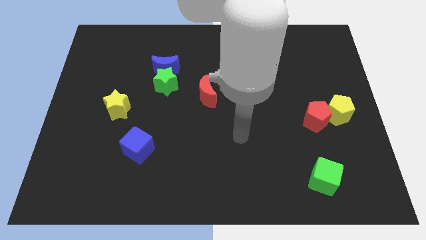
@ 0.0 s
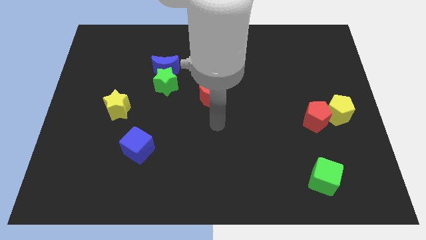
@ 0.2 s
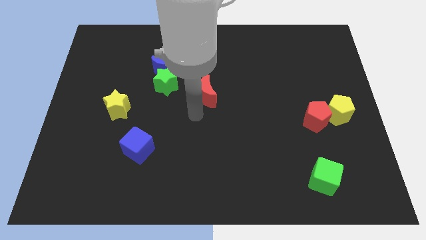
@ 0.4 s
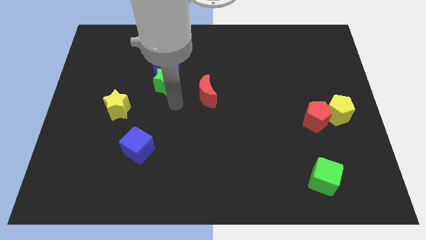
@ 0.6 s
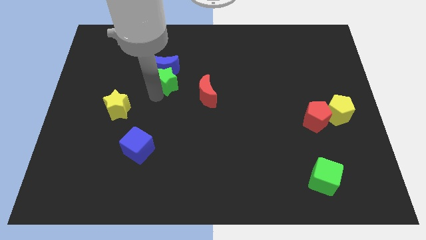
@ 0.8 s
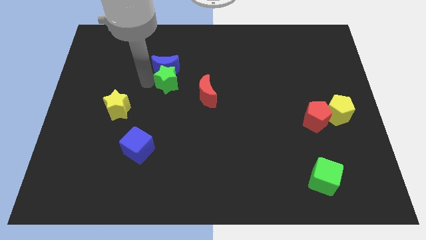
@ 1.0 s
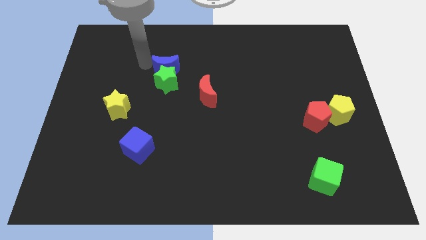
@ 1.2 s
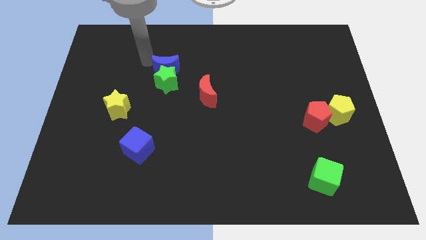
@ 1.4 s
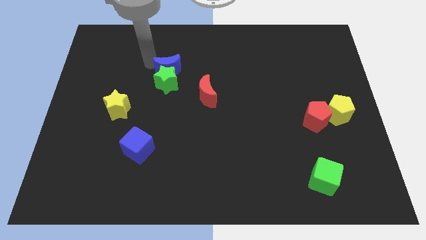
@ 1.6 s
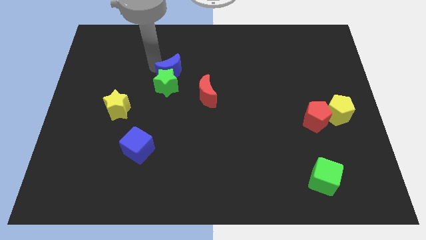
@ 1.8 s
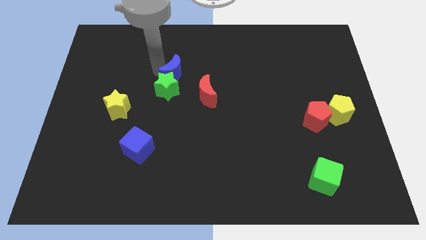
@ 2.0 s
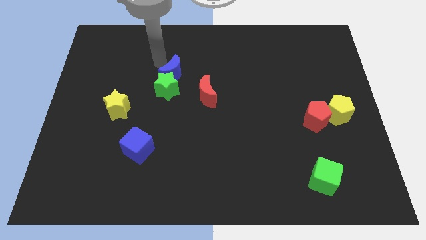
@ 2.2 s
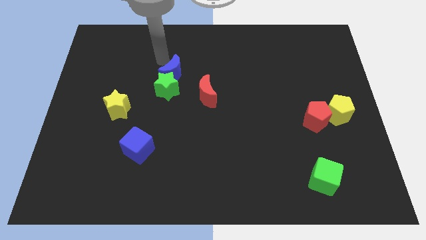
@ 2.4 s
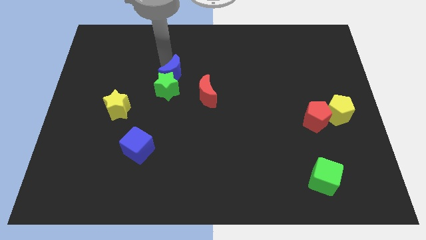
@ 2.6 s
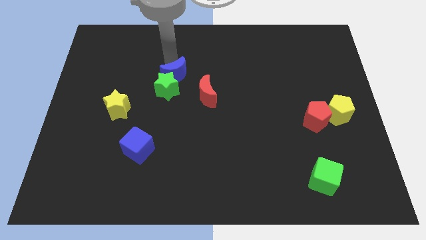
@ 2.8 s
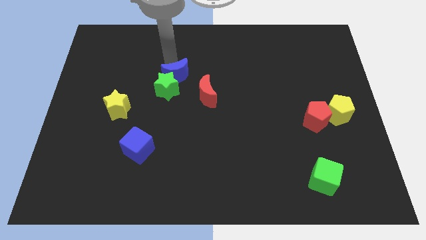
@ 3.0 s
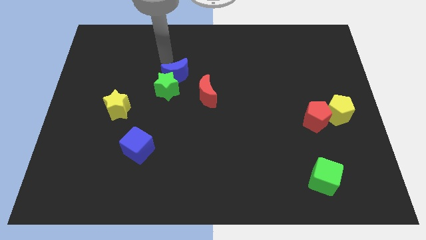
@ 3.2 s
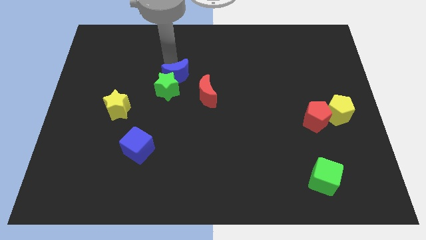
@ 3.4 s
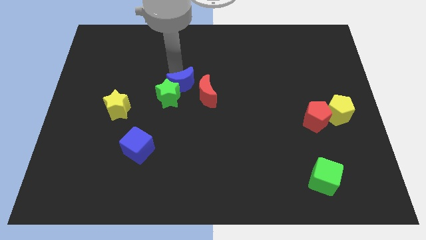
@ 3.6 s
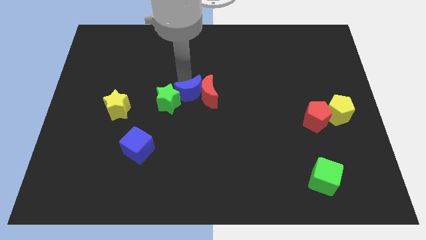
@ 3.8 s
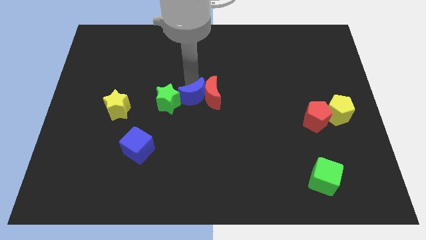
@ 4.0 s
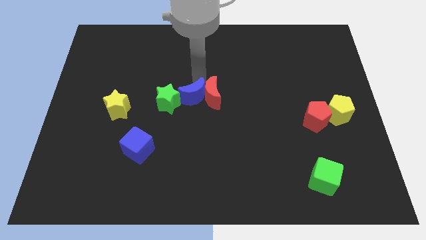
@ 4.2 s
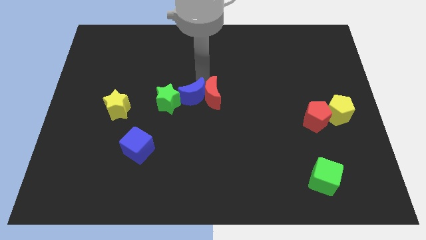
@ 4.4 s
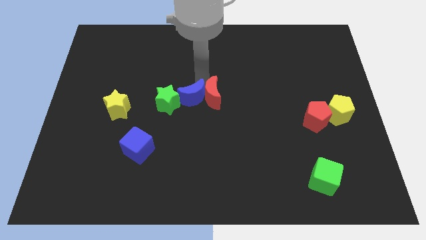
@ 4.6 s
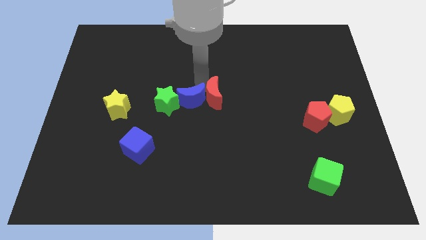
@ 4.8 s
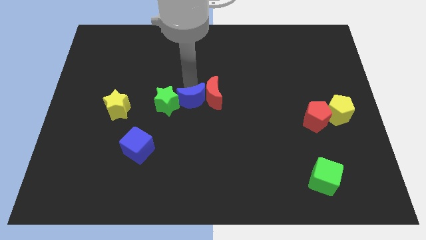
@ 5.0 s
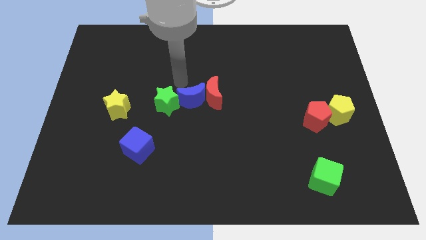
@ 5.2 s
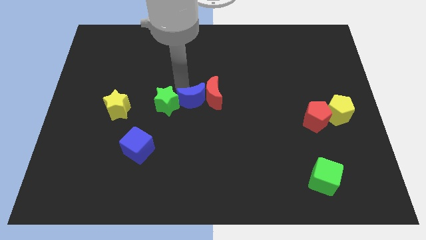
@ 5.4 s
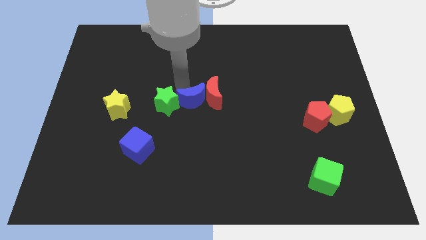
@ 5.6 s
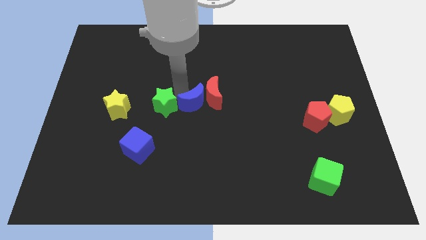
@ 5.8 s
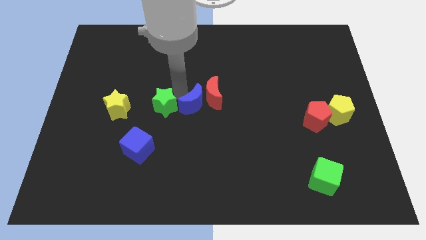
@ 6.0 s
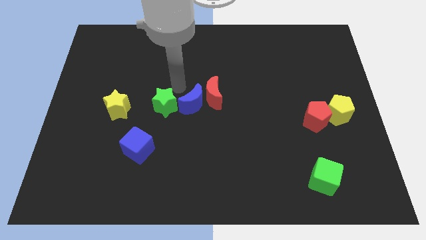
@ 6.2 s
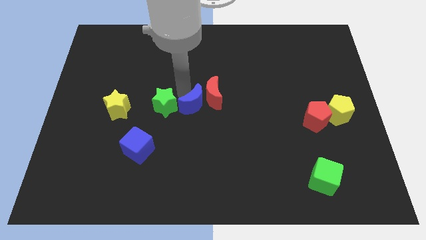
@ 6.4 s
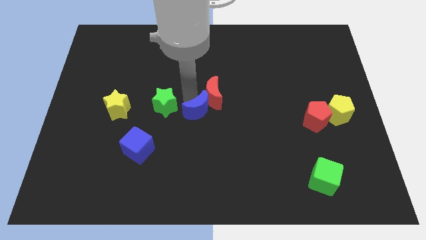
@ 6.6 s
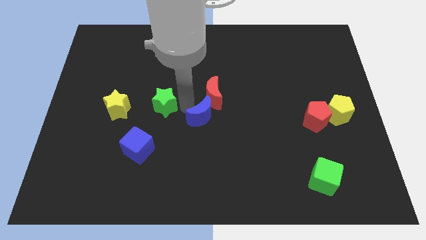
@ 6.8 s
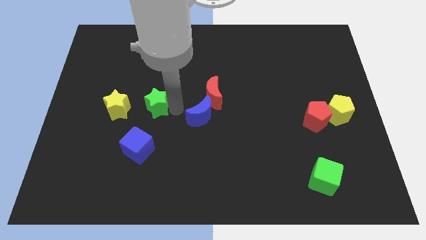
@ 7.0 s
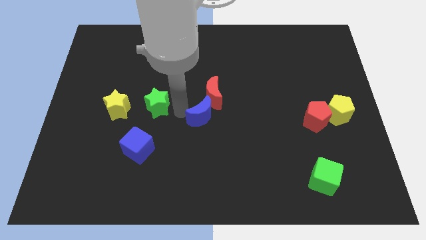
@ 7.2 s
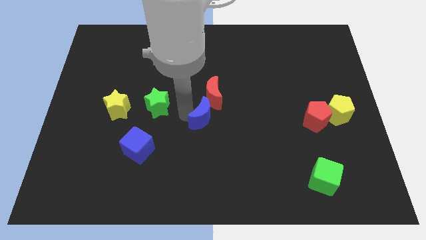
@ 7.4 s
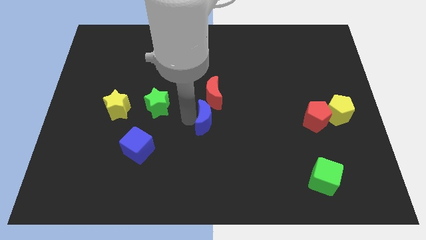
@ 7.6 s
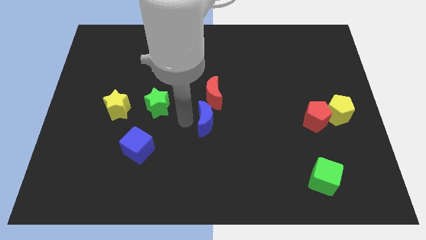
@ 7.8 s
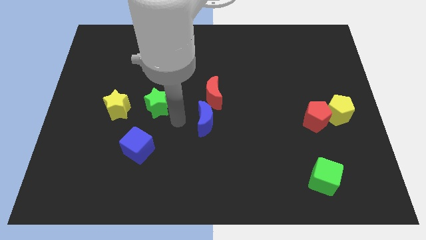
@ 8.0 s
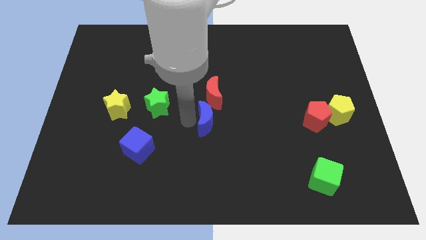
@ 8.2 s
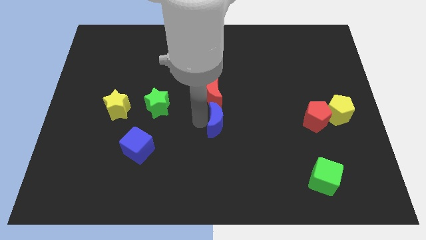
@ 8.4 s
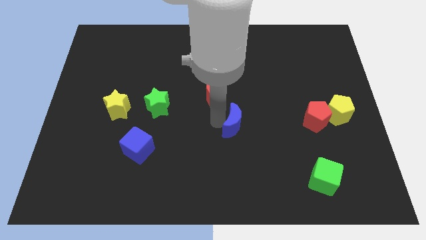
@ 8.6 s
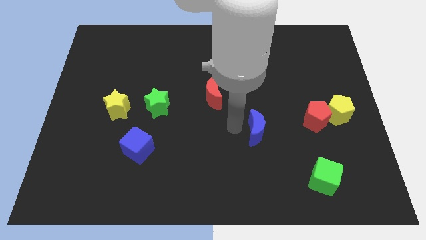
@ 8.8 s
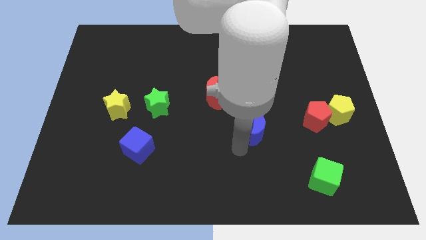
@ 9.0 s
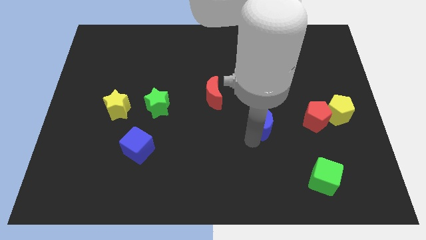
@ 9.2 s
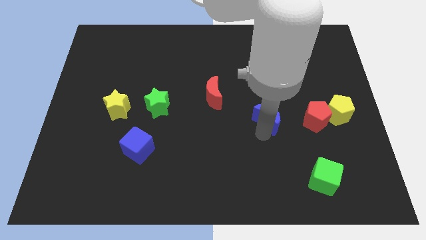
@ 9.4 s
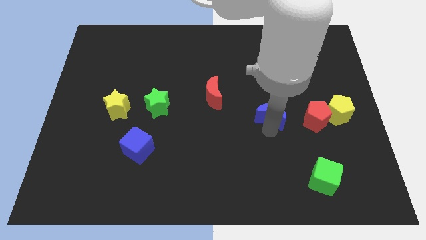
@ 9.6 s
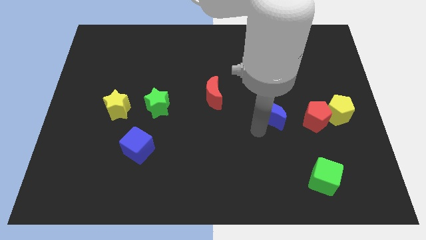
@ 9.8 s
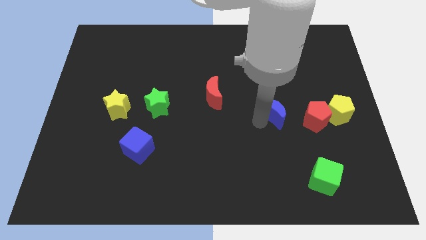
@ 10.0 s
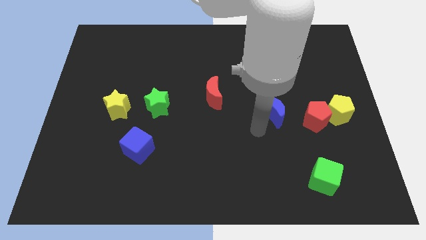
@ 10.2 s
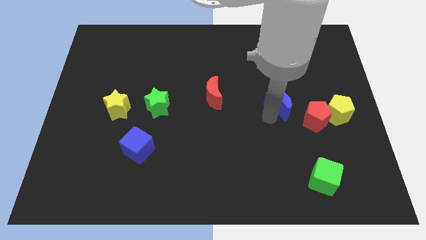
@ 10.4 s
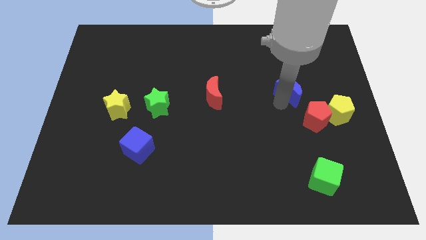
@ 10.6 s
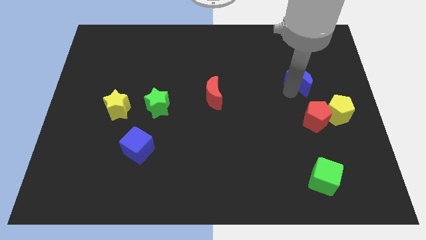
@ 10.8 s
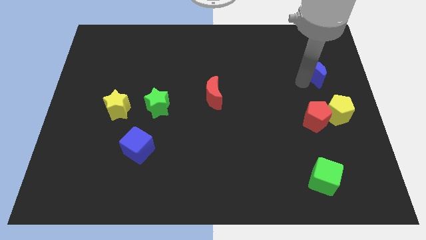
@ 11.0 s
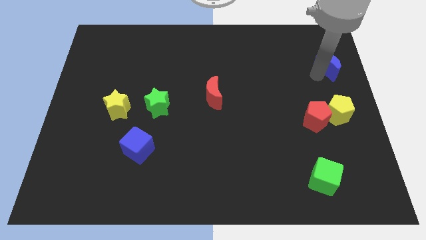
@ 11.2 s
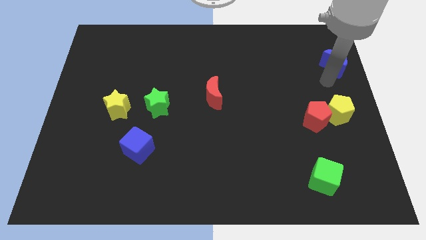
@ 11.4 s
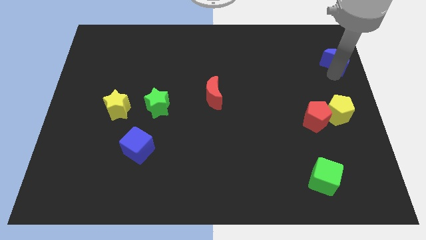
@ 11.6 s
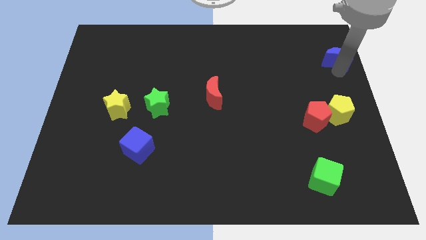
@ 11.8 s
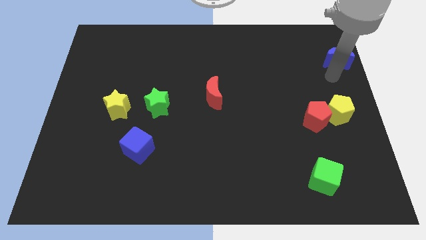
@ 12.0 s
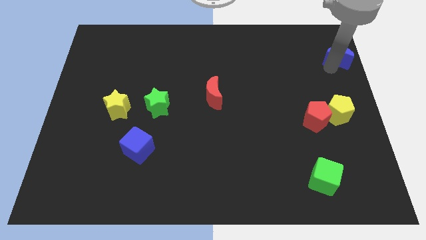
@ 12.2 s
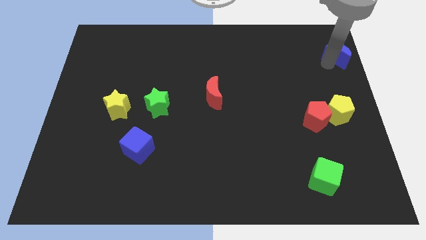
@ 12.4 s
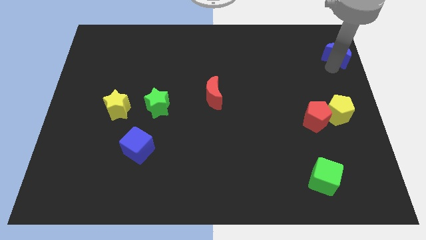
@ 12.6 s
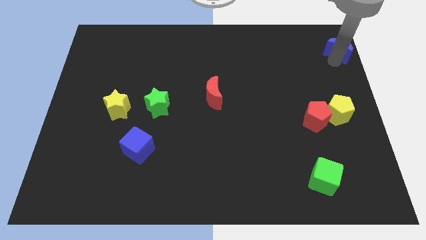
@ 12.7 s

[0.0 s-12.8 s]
put the blue moon to the top right
